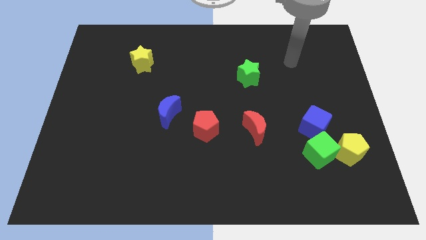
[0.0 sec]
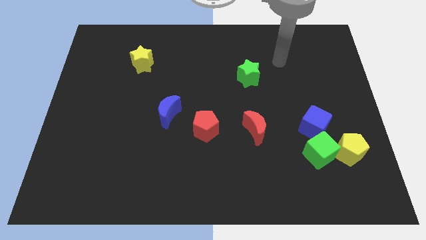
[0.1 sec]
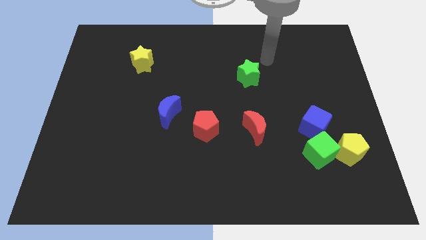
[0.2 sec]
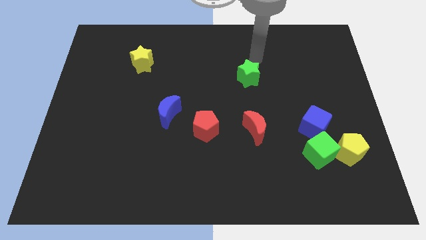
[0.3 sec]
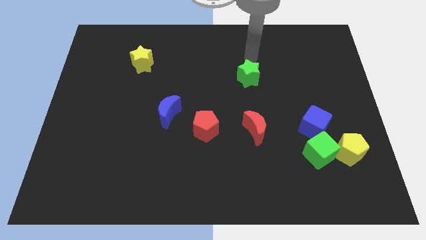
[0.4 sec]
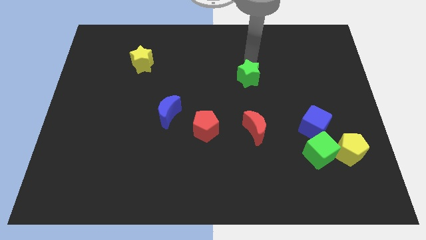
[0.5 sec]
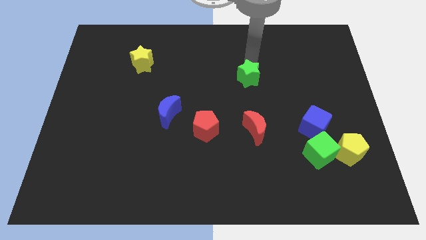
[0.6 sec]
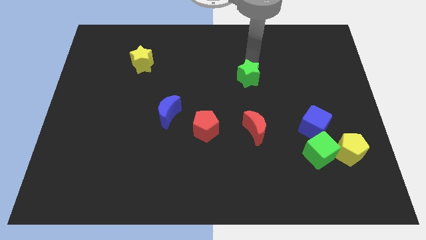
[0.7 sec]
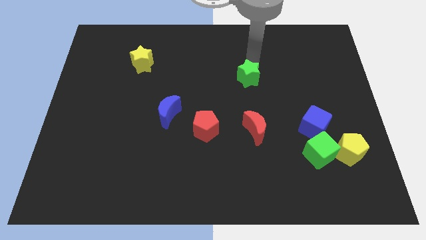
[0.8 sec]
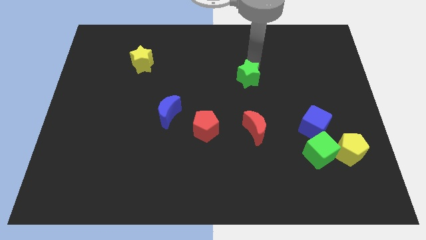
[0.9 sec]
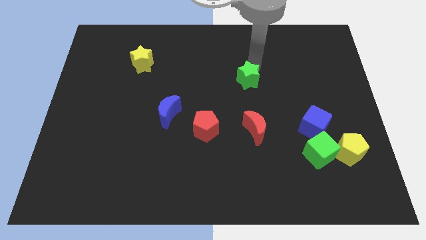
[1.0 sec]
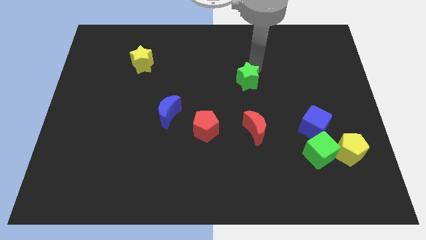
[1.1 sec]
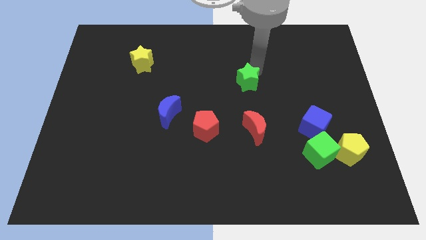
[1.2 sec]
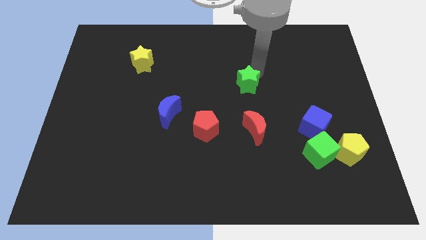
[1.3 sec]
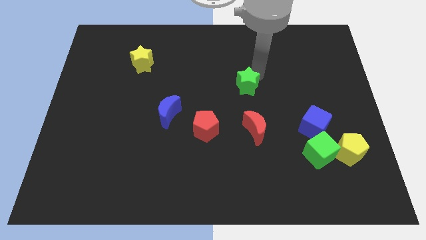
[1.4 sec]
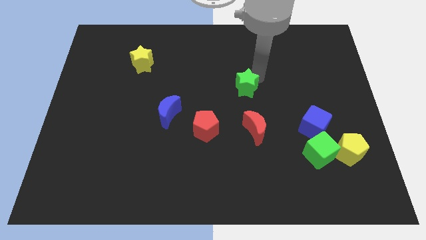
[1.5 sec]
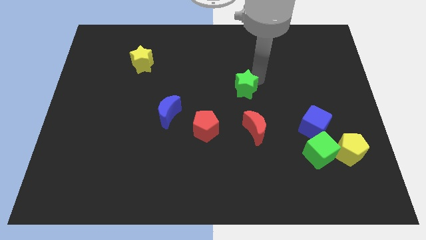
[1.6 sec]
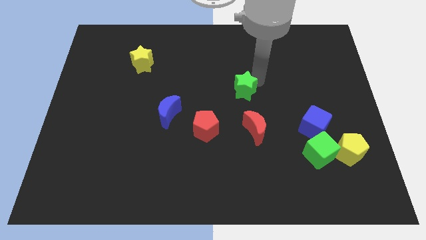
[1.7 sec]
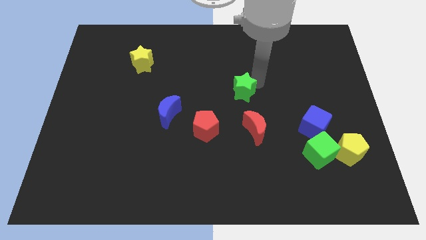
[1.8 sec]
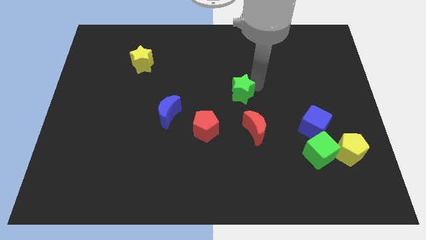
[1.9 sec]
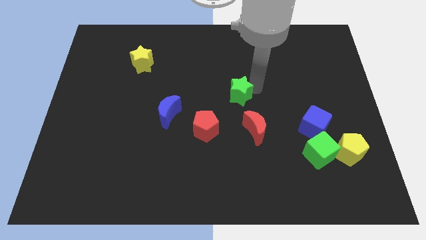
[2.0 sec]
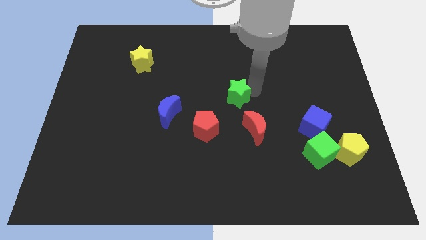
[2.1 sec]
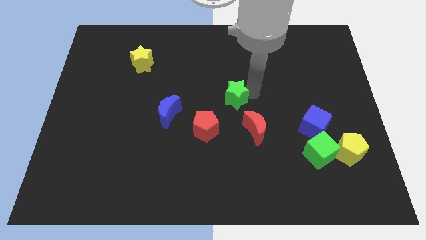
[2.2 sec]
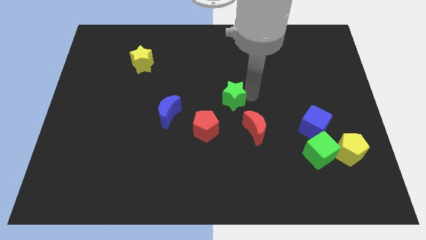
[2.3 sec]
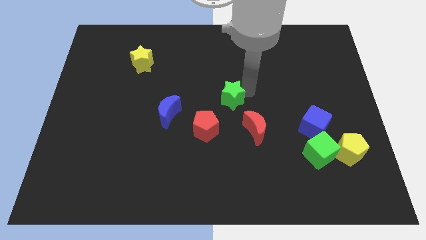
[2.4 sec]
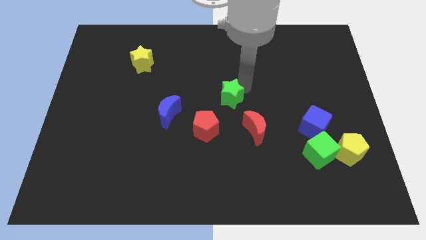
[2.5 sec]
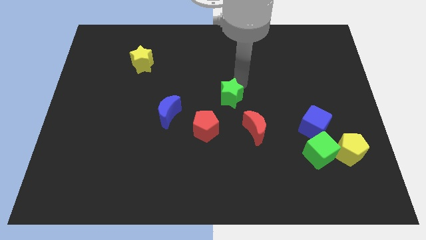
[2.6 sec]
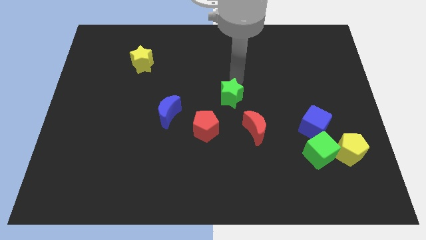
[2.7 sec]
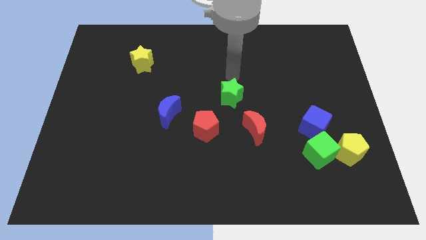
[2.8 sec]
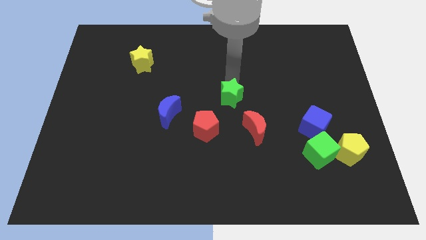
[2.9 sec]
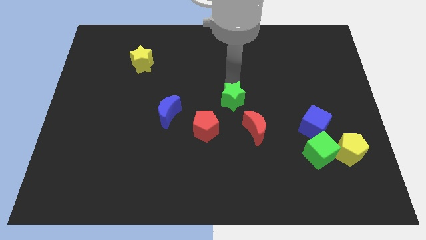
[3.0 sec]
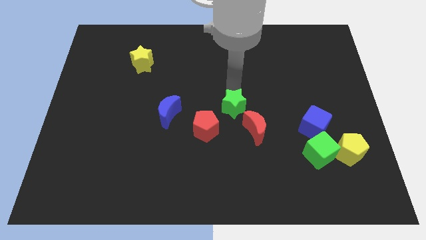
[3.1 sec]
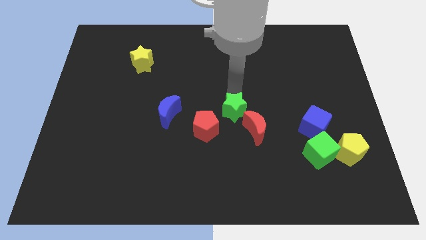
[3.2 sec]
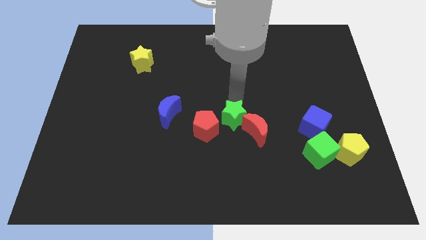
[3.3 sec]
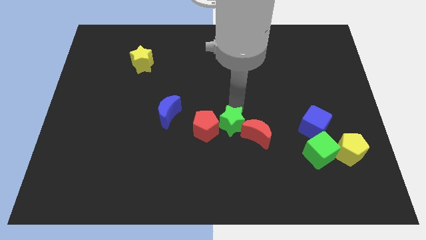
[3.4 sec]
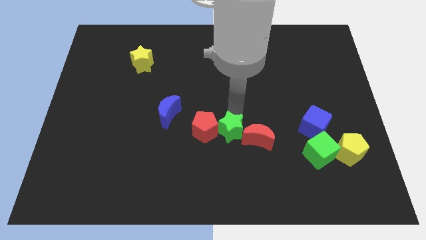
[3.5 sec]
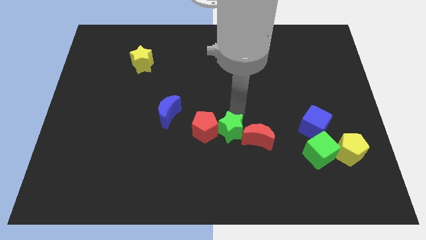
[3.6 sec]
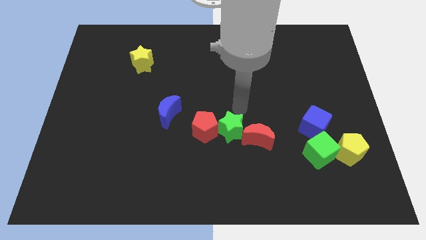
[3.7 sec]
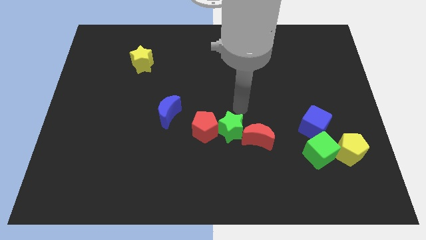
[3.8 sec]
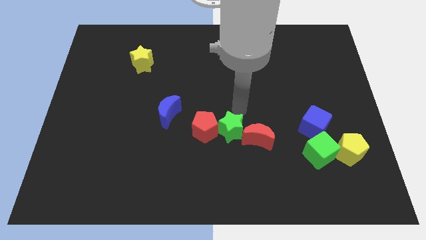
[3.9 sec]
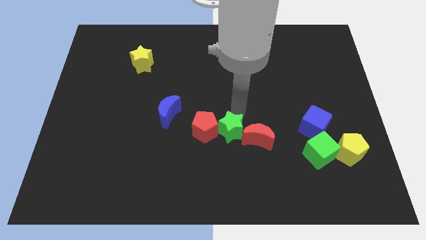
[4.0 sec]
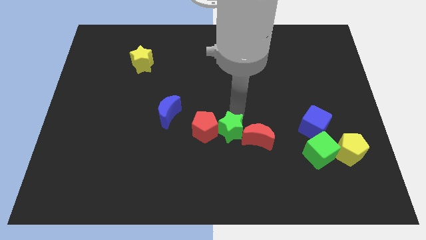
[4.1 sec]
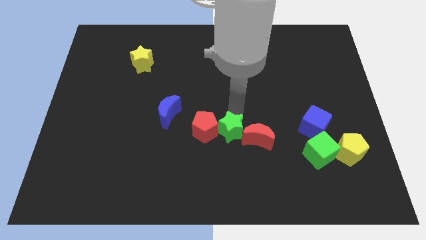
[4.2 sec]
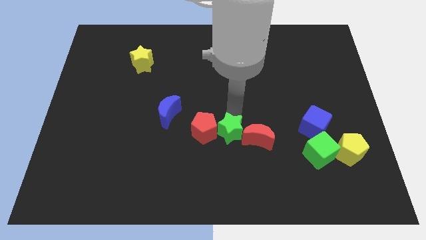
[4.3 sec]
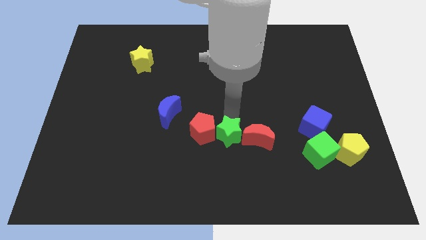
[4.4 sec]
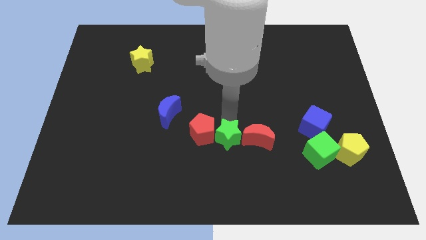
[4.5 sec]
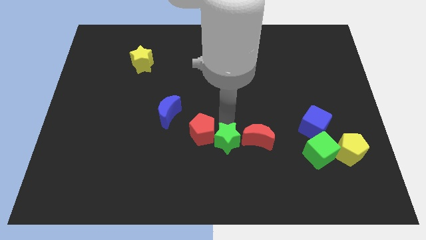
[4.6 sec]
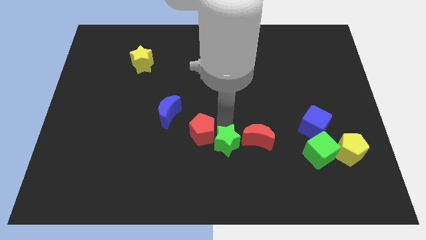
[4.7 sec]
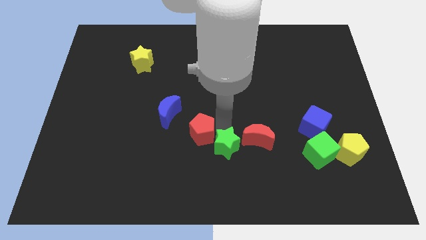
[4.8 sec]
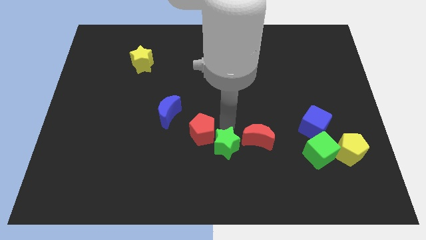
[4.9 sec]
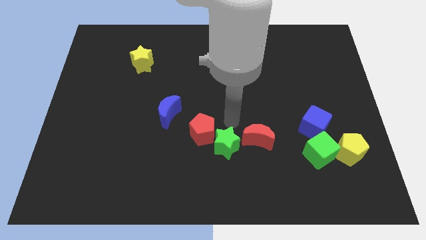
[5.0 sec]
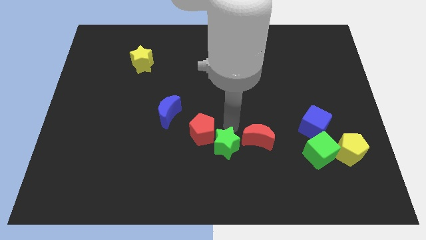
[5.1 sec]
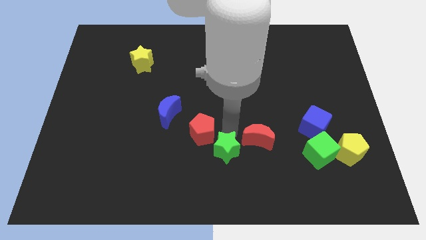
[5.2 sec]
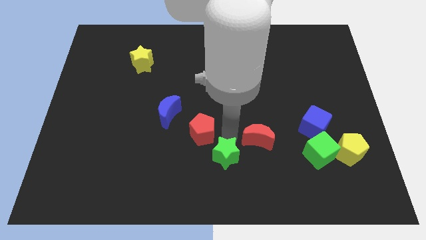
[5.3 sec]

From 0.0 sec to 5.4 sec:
move the green star to the bottom

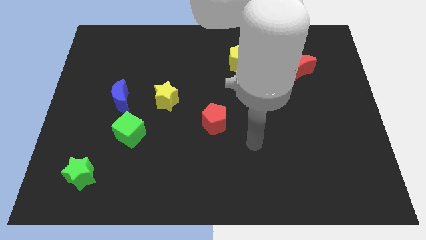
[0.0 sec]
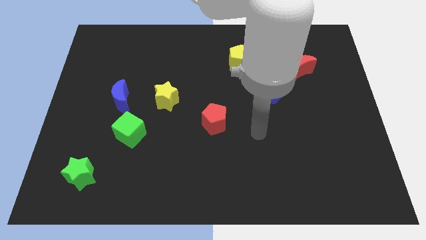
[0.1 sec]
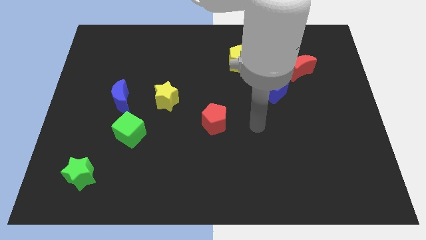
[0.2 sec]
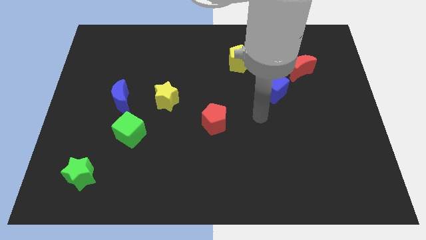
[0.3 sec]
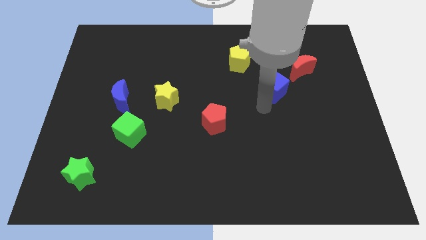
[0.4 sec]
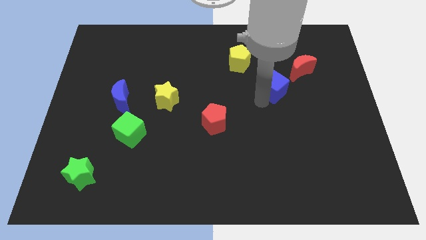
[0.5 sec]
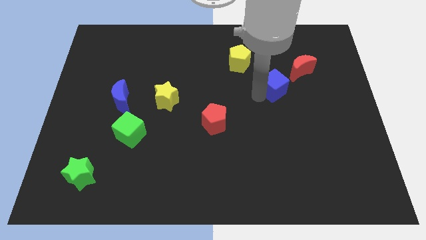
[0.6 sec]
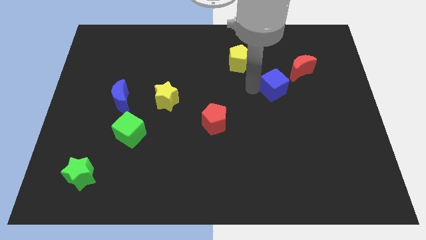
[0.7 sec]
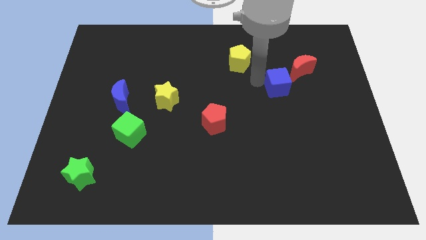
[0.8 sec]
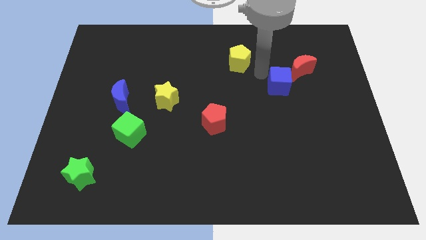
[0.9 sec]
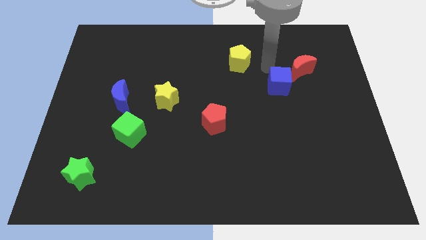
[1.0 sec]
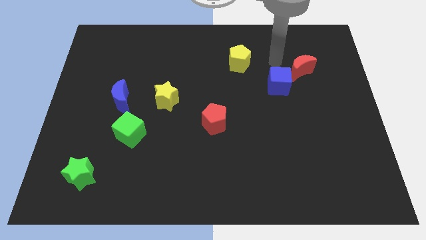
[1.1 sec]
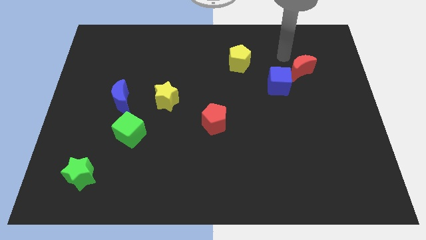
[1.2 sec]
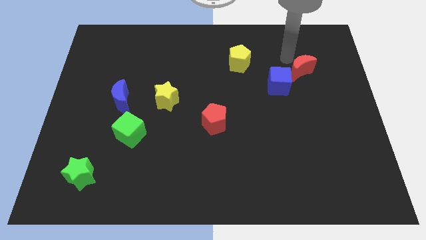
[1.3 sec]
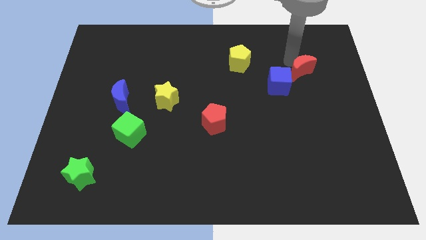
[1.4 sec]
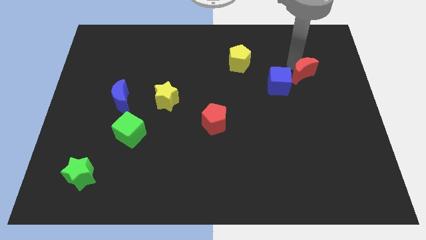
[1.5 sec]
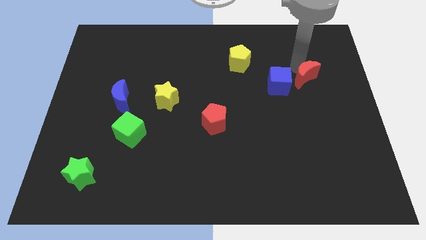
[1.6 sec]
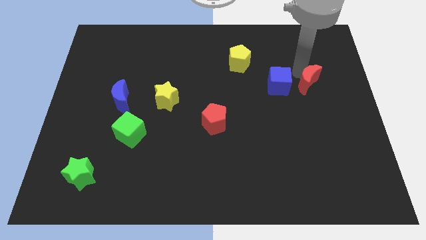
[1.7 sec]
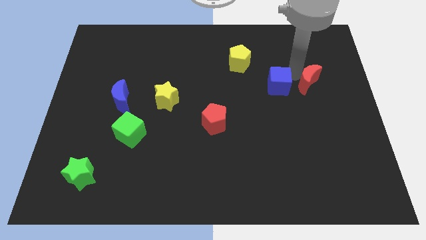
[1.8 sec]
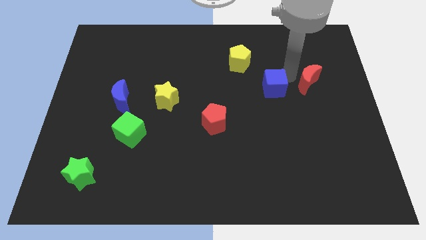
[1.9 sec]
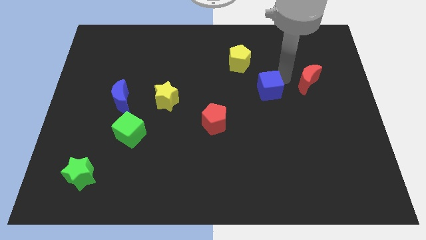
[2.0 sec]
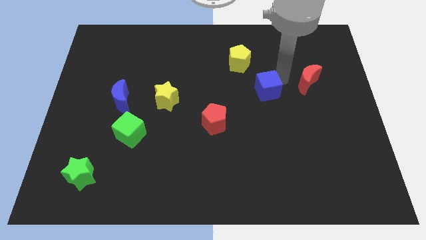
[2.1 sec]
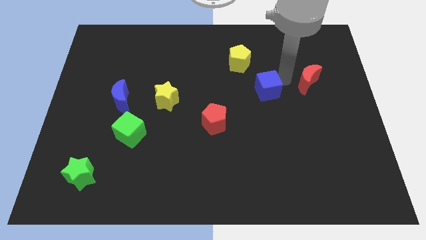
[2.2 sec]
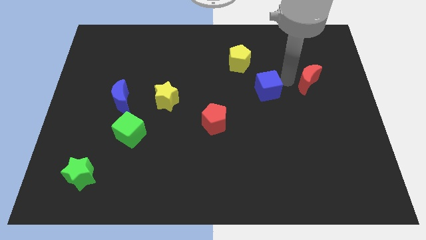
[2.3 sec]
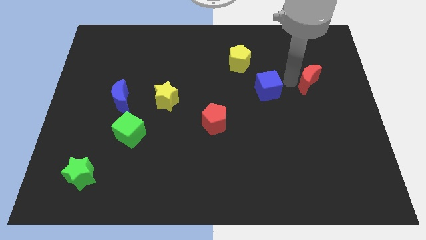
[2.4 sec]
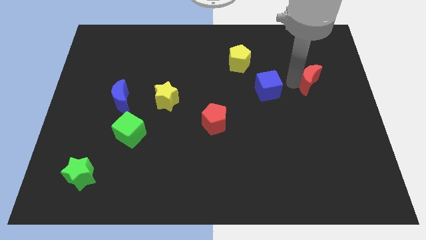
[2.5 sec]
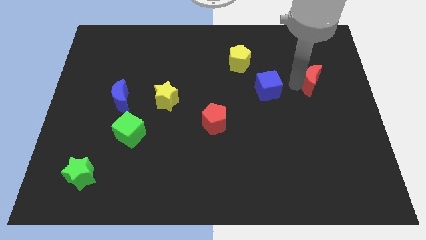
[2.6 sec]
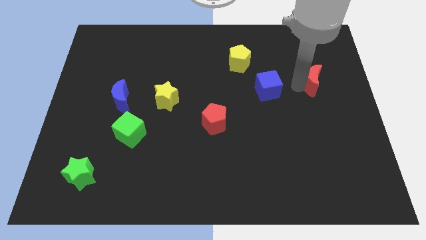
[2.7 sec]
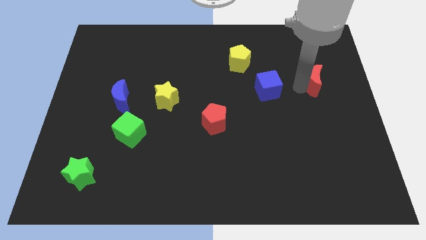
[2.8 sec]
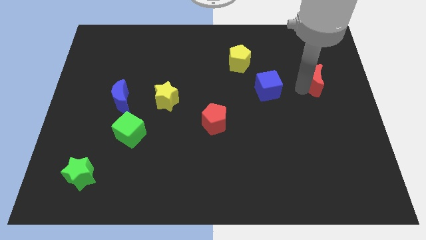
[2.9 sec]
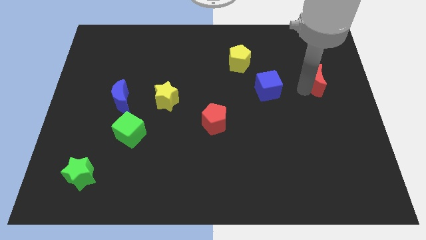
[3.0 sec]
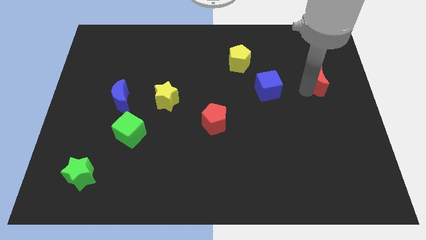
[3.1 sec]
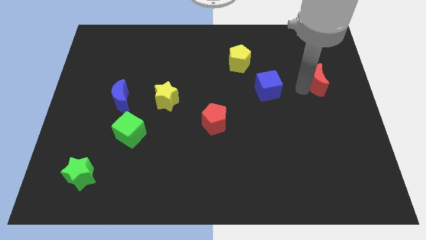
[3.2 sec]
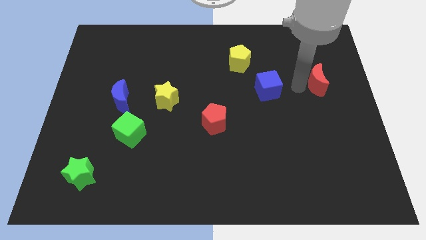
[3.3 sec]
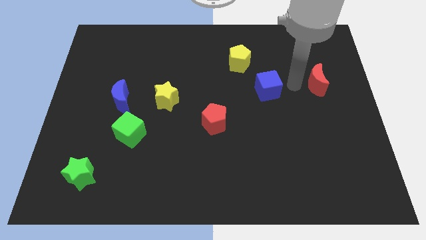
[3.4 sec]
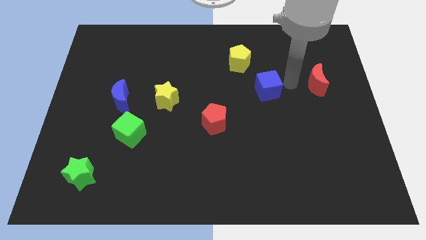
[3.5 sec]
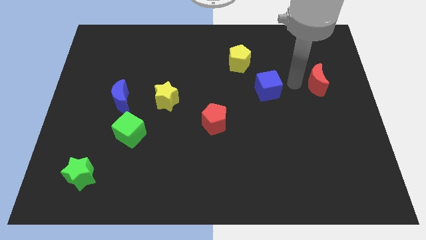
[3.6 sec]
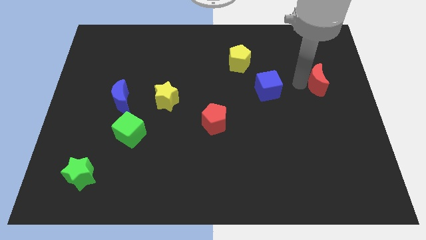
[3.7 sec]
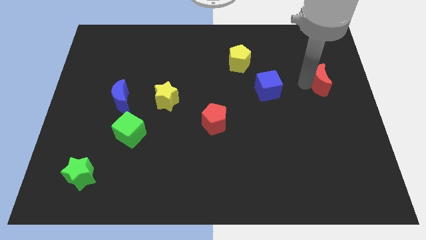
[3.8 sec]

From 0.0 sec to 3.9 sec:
put the red moon to the right side
